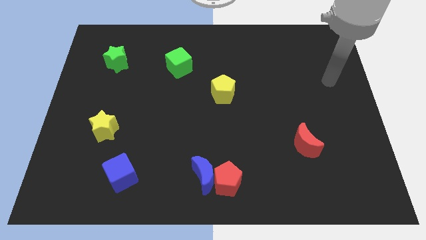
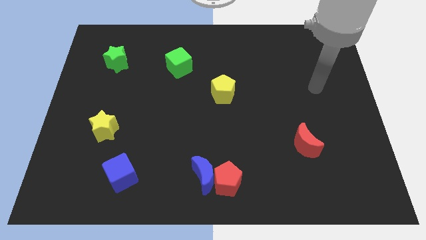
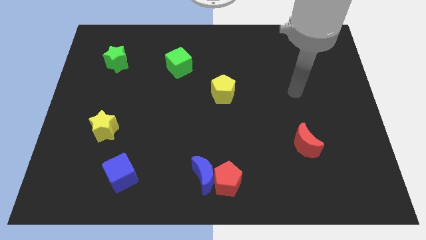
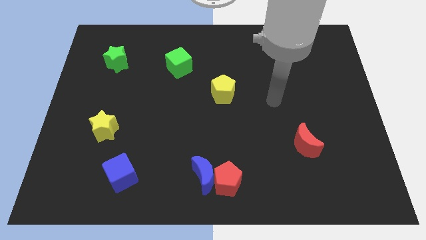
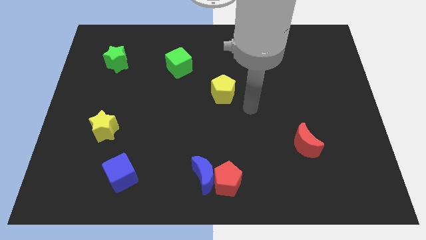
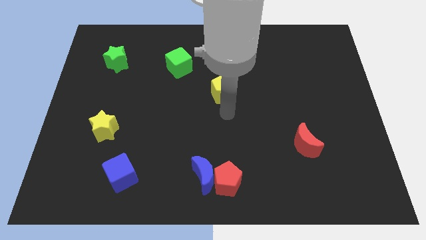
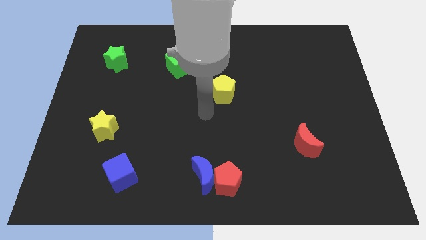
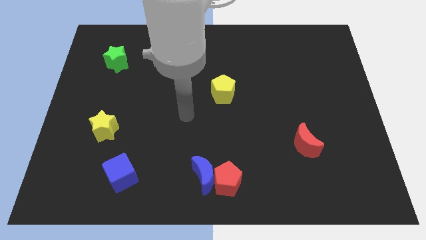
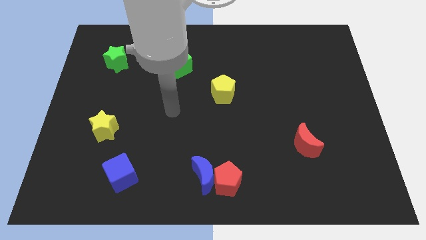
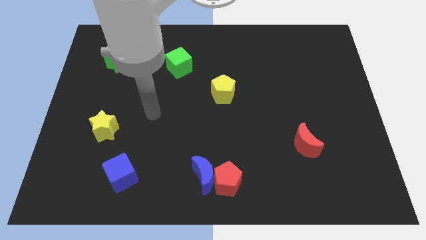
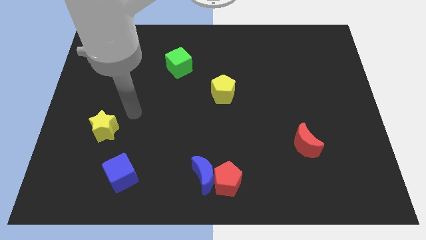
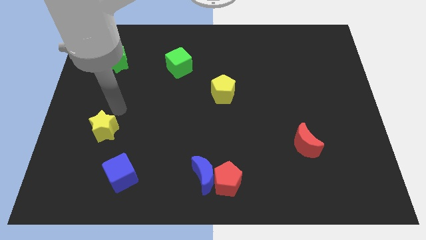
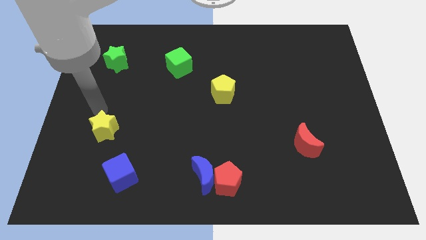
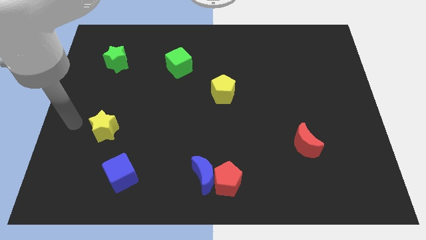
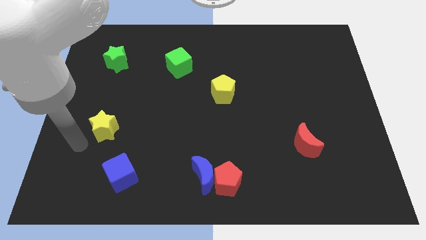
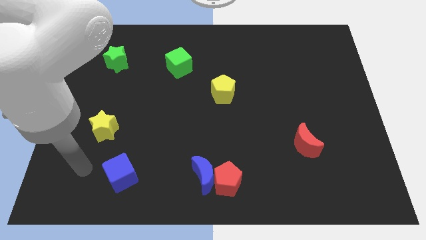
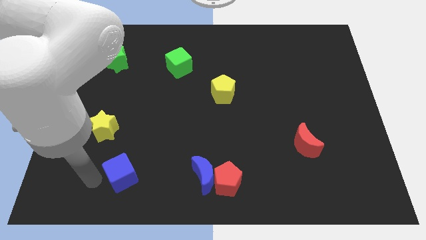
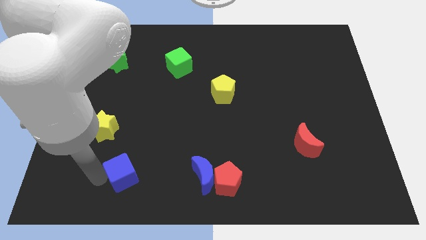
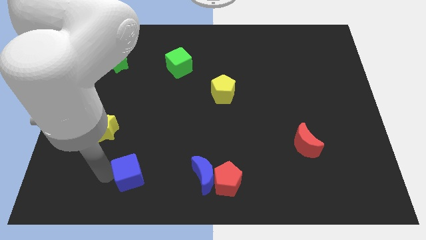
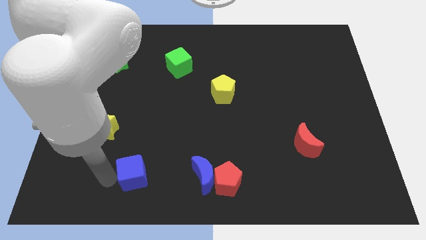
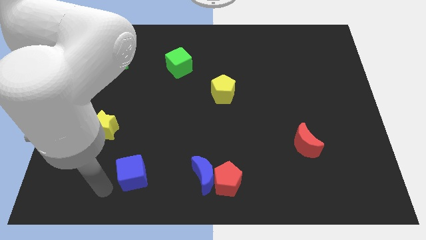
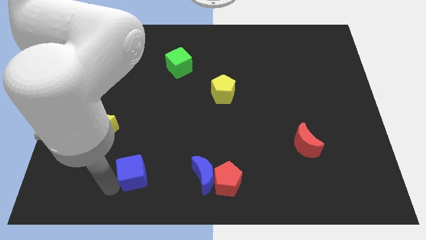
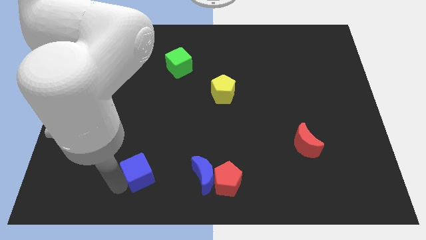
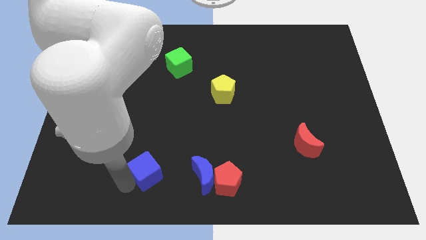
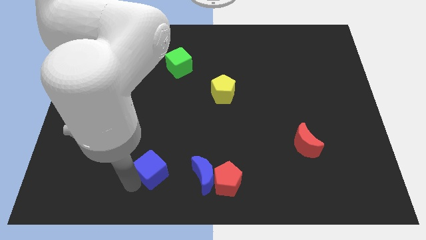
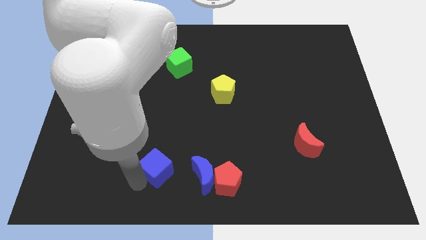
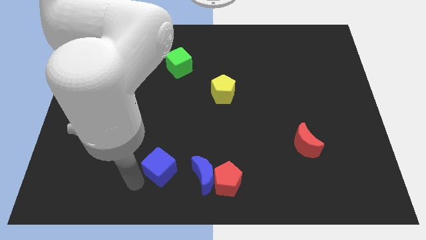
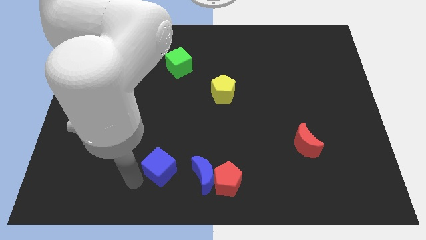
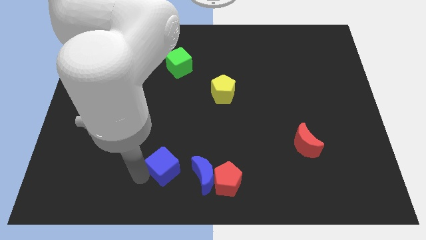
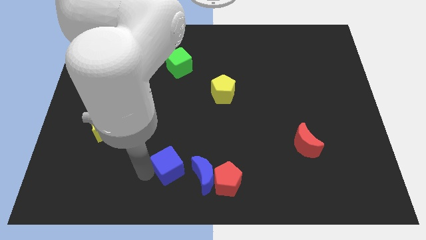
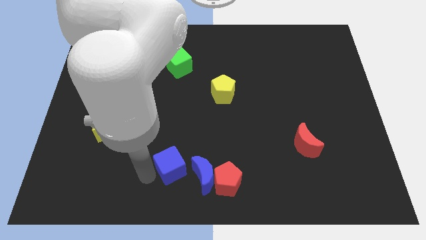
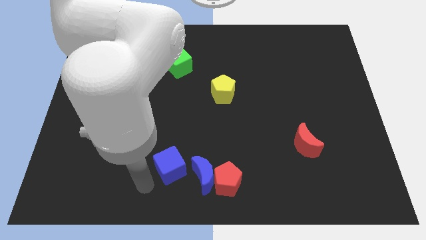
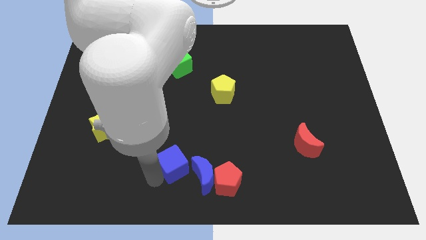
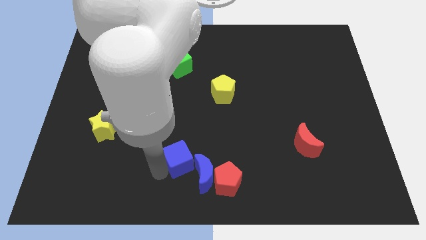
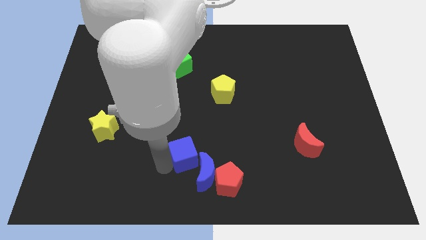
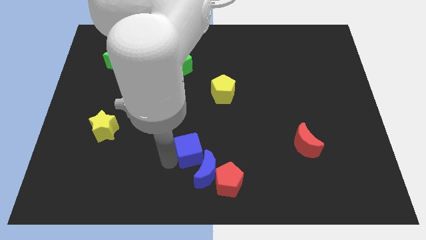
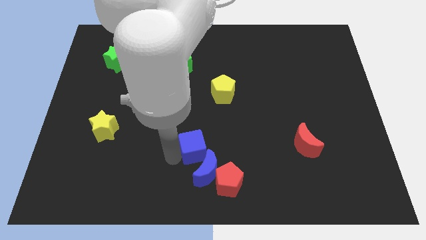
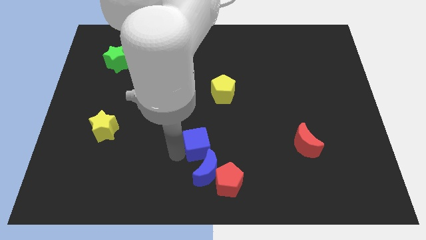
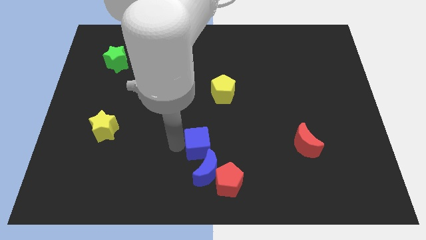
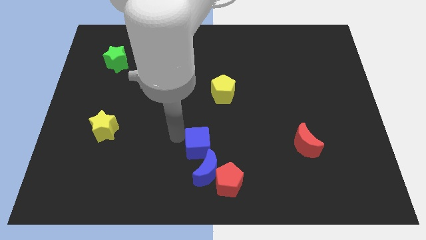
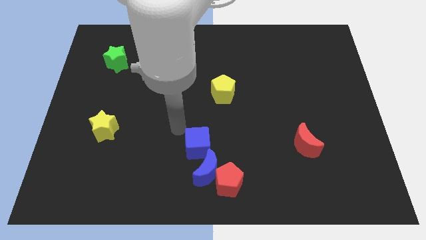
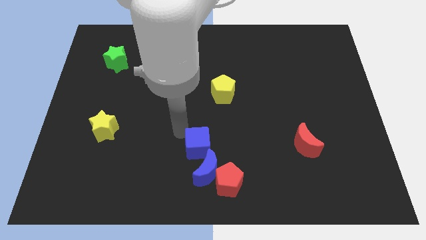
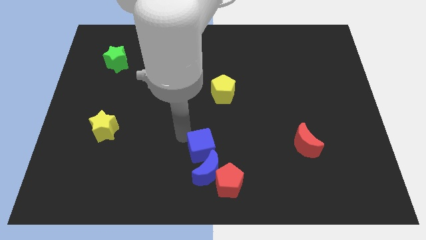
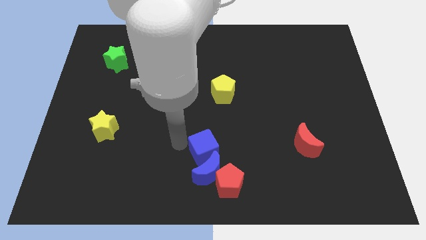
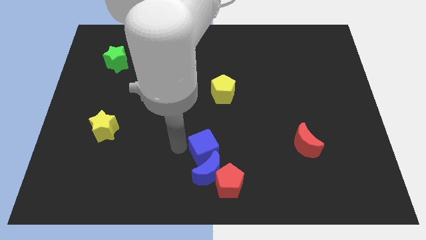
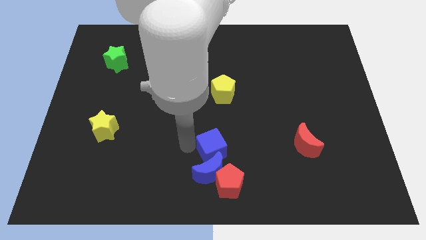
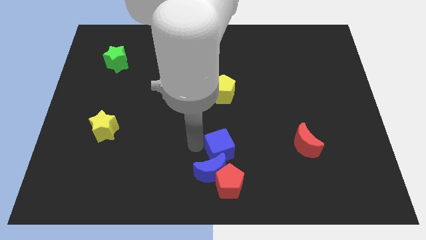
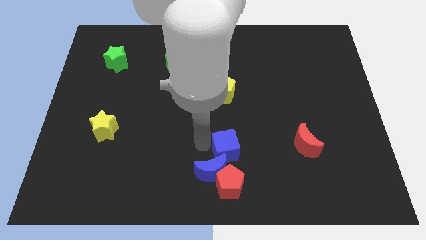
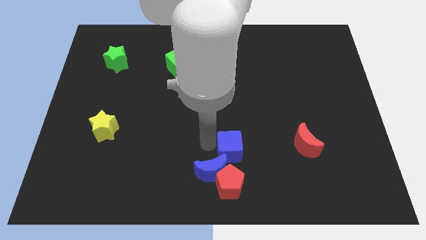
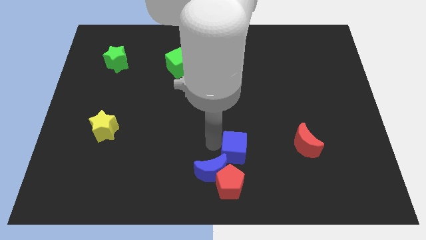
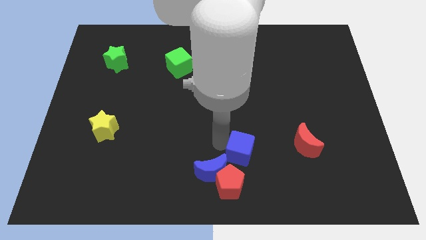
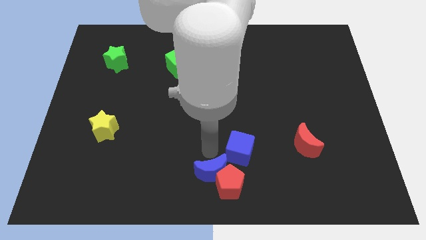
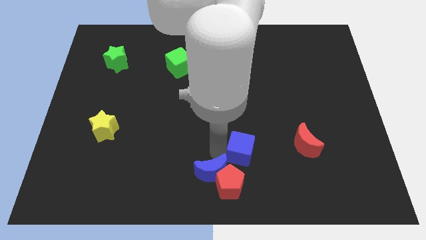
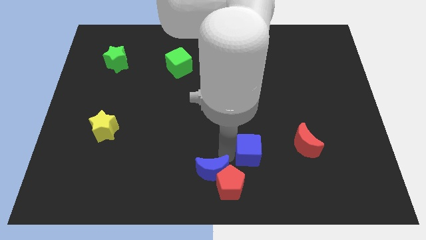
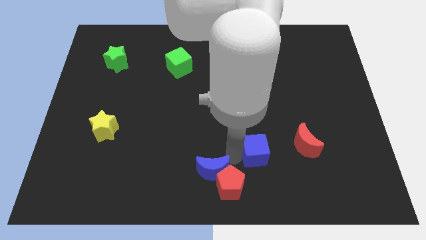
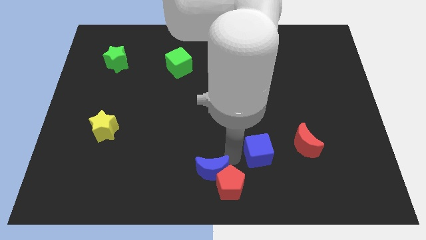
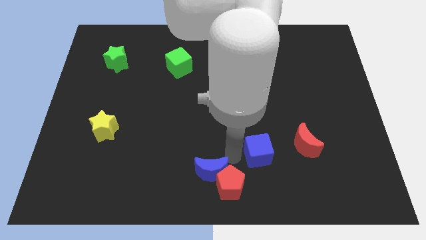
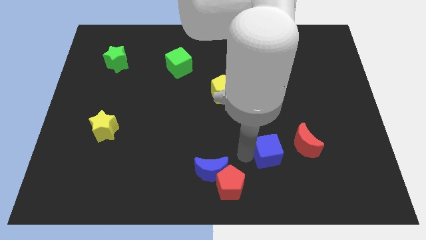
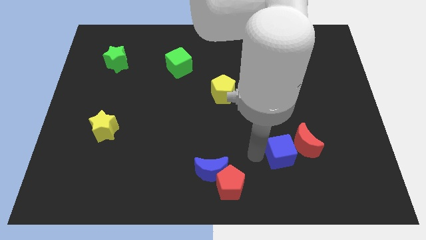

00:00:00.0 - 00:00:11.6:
slide the blue cube to the red moon

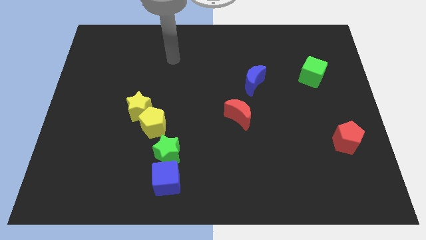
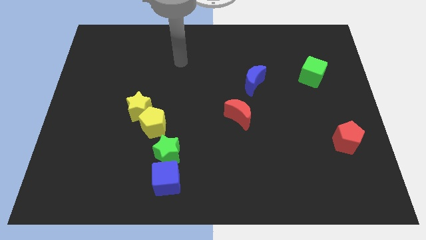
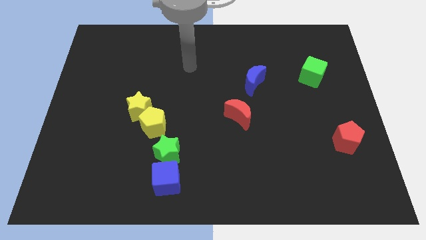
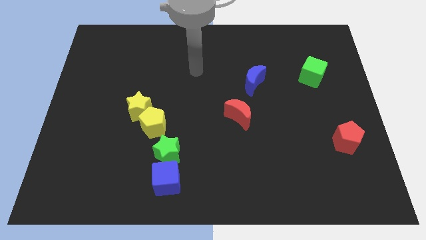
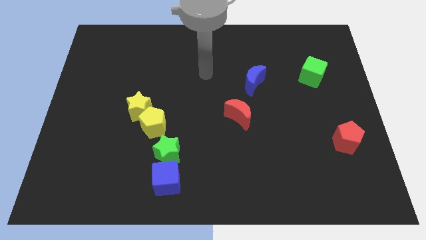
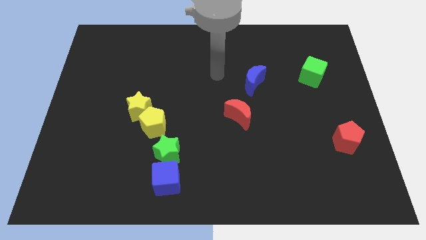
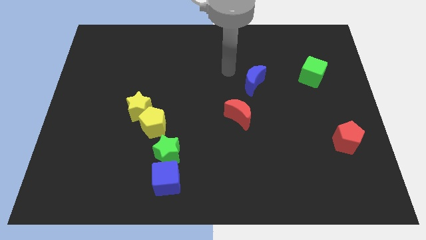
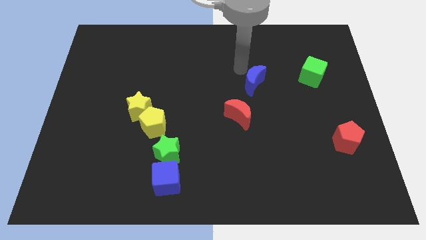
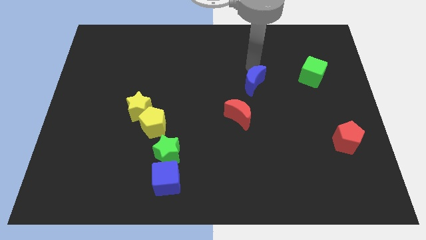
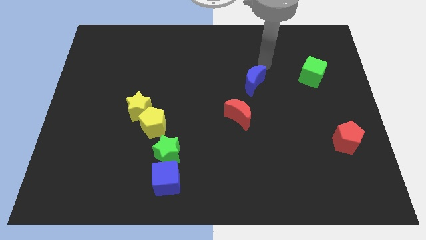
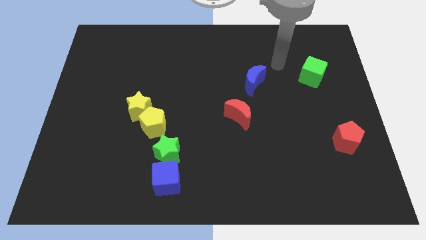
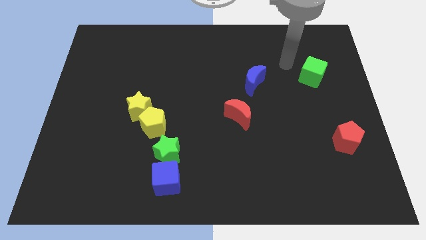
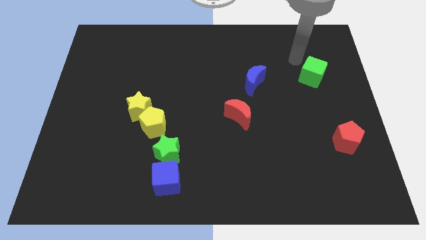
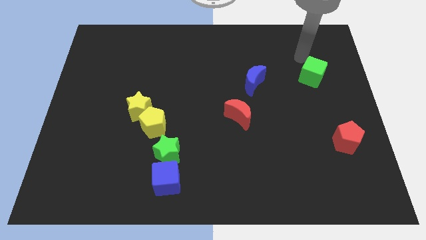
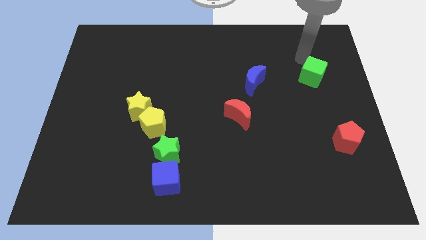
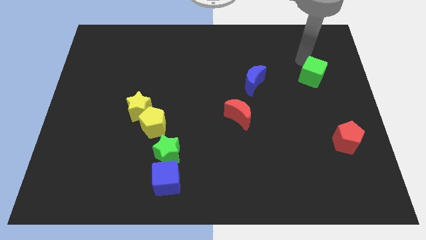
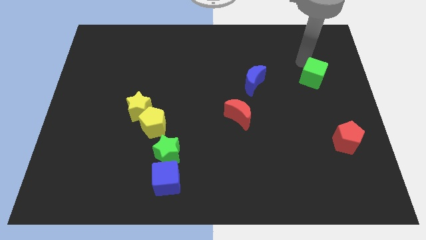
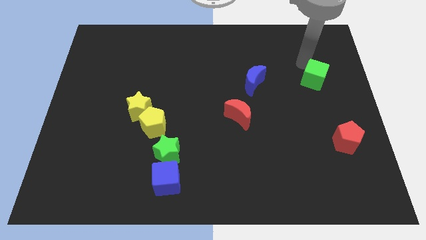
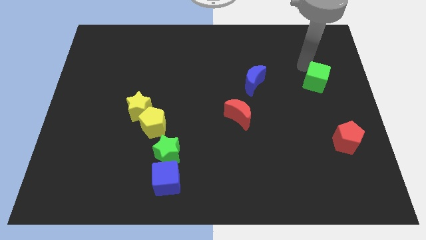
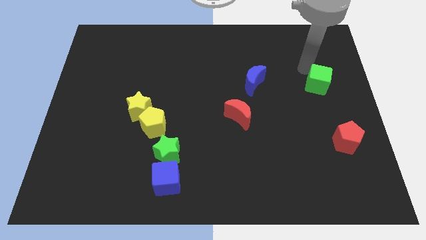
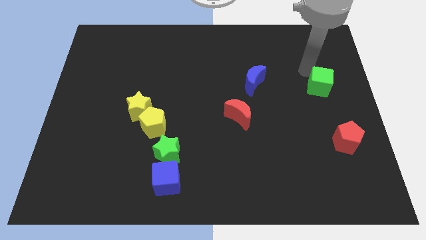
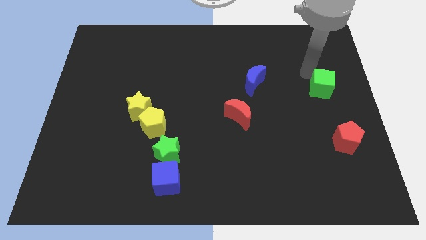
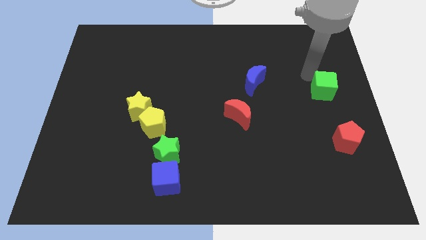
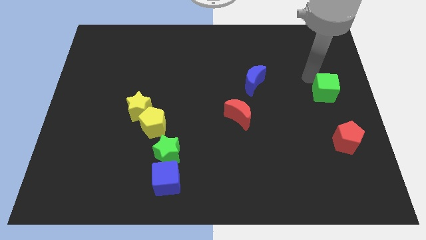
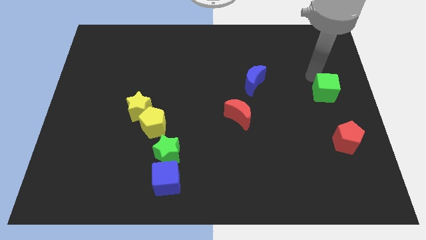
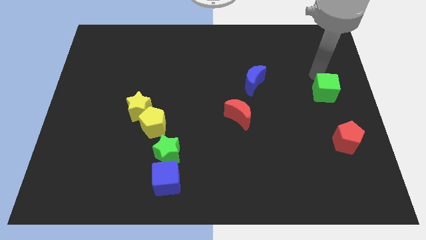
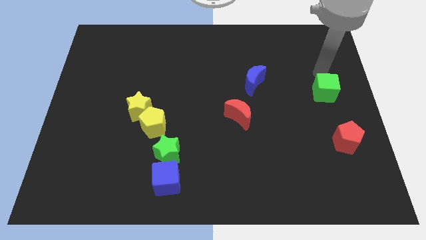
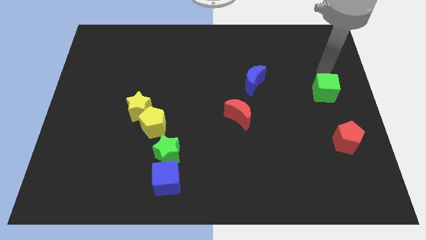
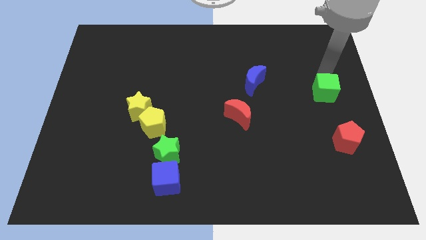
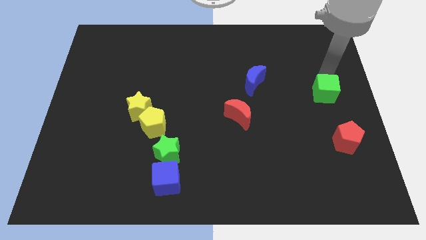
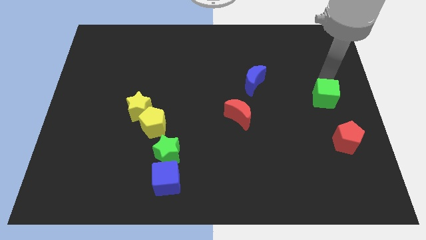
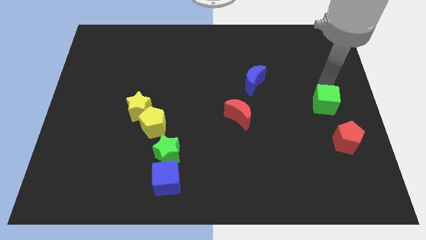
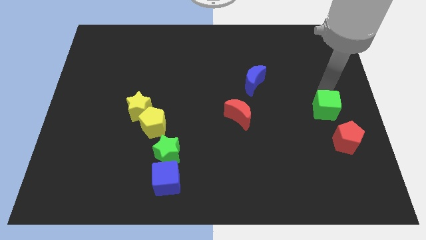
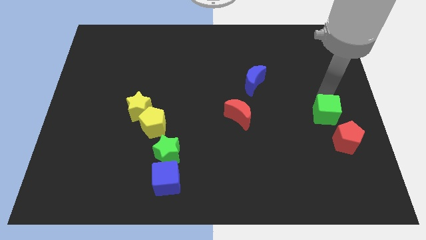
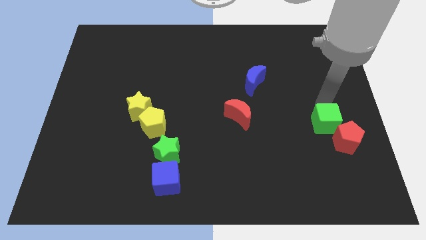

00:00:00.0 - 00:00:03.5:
slide the green cube to the red pentagon
